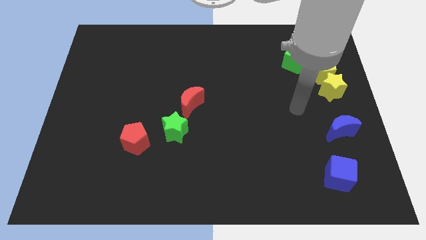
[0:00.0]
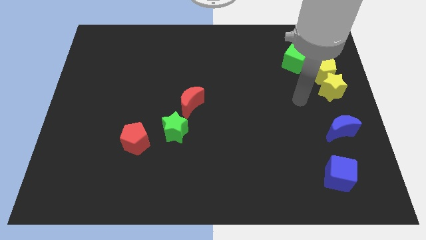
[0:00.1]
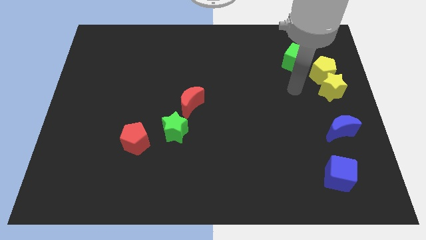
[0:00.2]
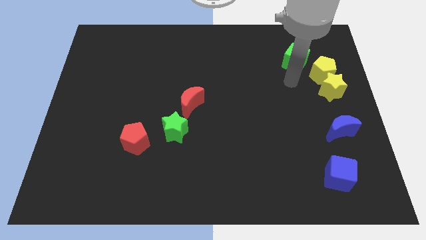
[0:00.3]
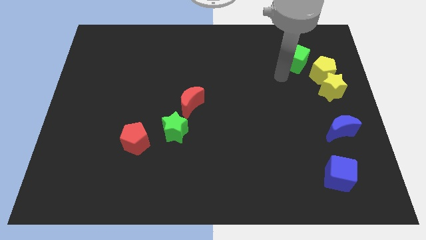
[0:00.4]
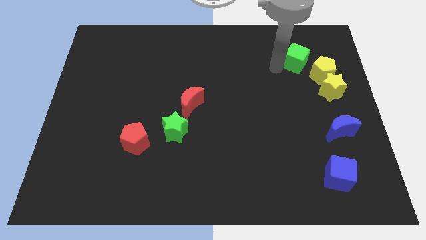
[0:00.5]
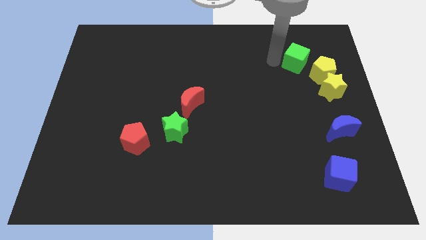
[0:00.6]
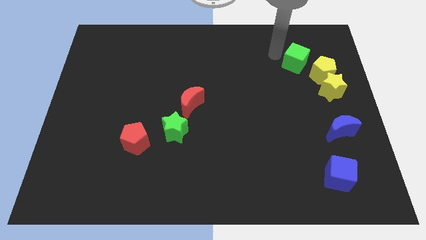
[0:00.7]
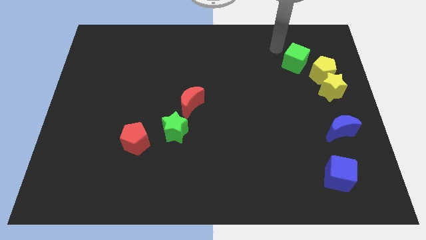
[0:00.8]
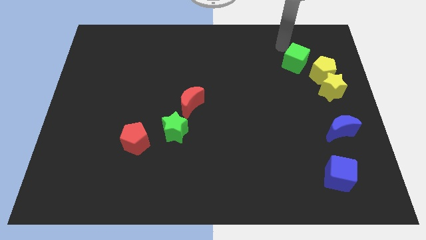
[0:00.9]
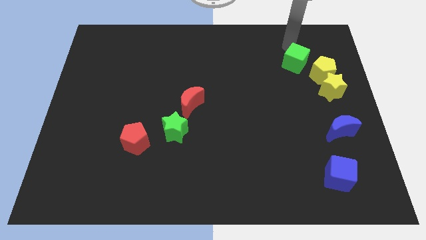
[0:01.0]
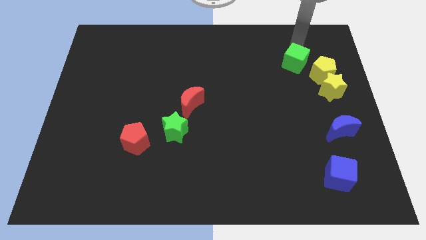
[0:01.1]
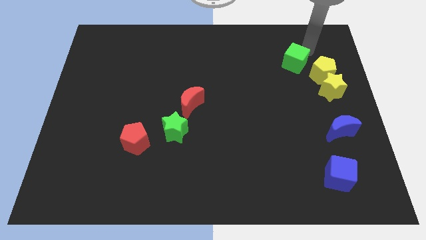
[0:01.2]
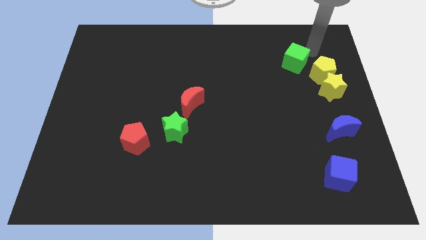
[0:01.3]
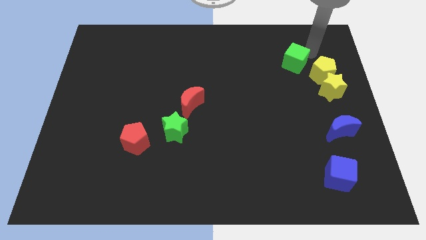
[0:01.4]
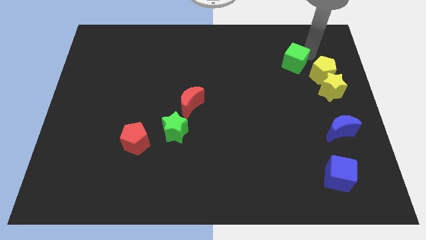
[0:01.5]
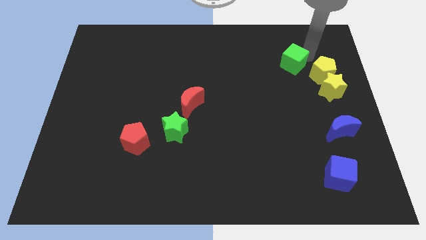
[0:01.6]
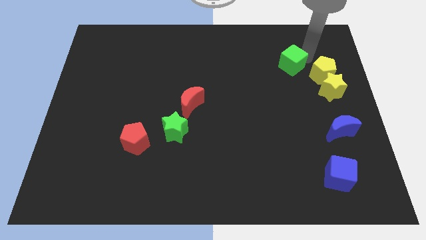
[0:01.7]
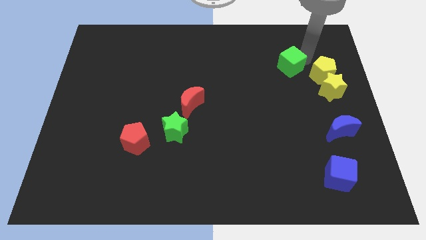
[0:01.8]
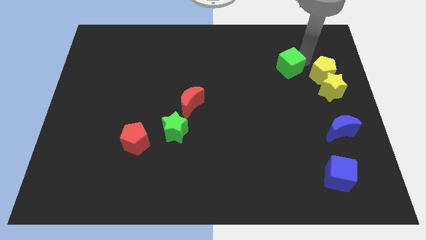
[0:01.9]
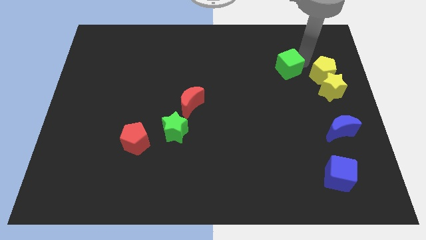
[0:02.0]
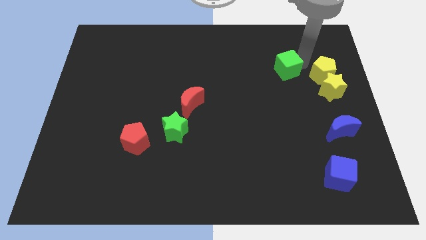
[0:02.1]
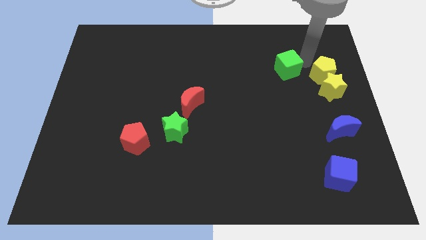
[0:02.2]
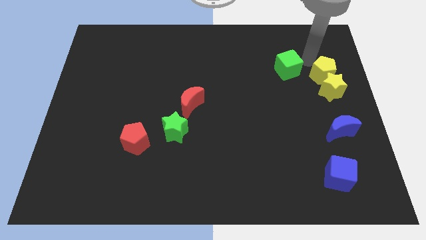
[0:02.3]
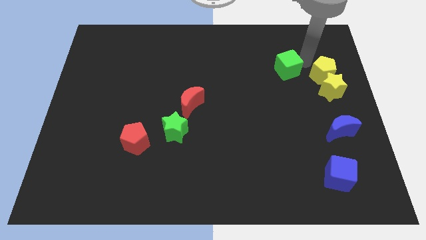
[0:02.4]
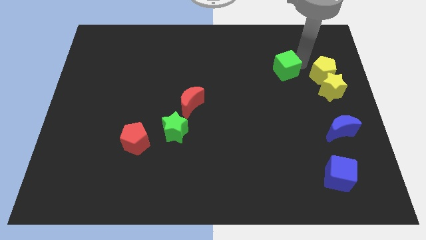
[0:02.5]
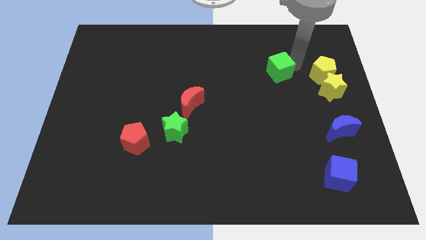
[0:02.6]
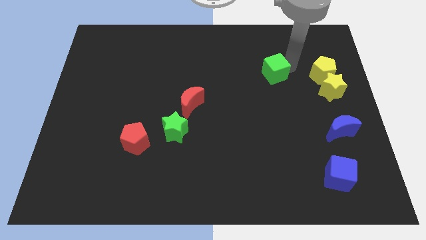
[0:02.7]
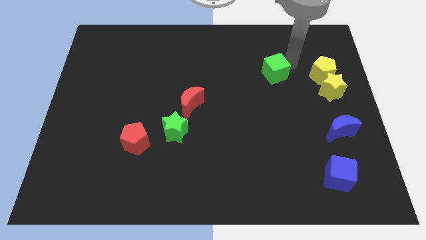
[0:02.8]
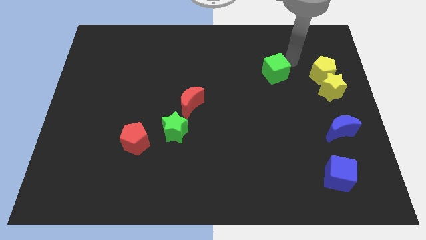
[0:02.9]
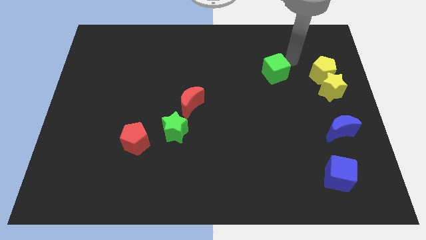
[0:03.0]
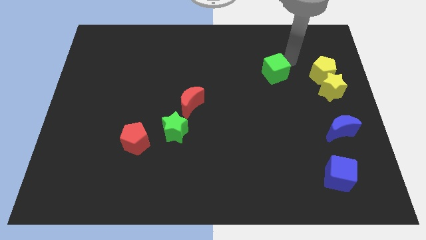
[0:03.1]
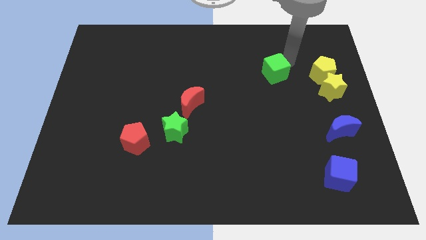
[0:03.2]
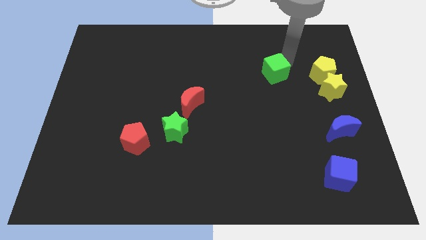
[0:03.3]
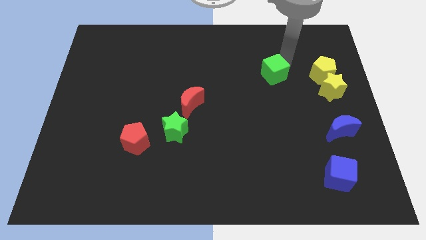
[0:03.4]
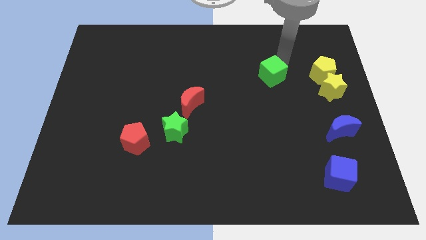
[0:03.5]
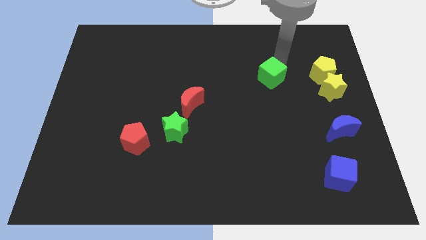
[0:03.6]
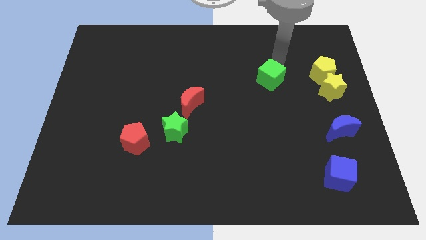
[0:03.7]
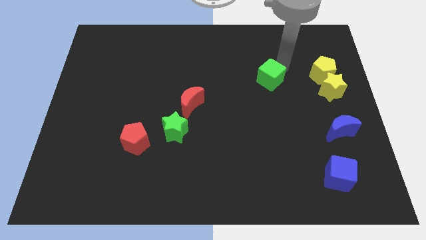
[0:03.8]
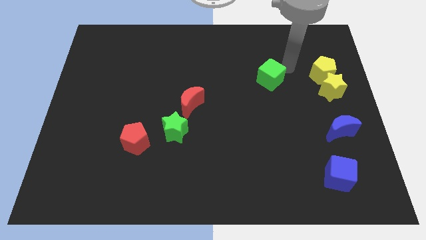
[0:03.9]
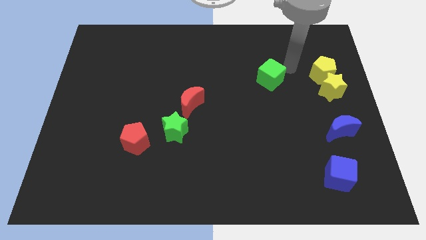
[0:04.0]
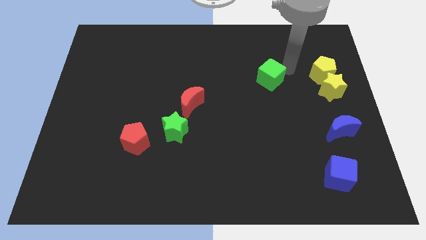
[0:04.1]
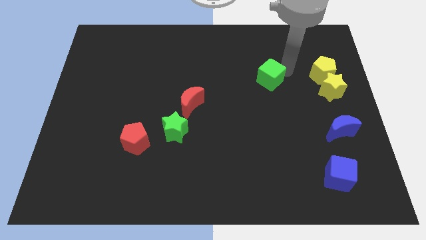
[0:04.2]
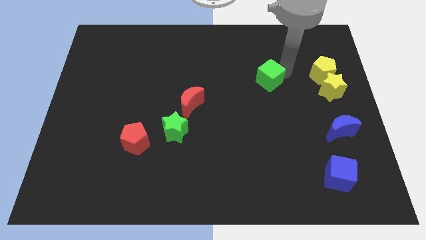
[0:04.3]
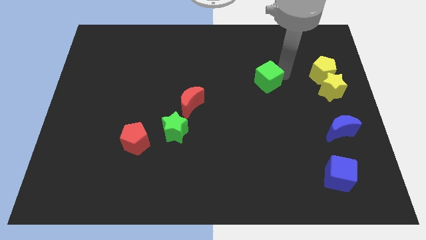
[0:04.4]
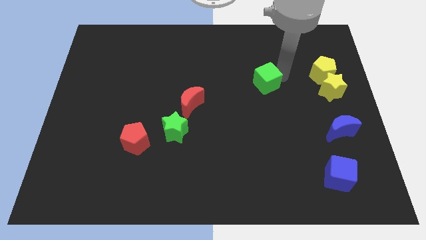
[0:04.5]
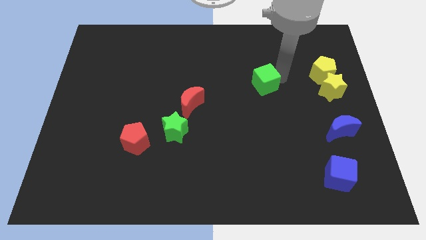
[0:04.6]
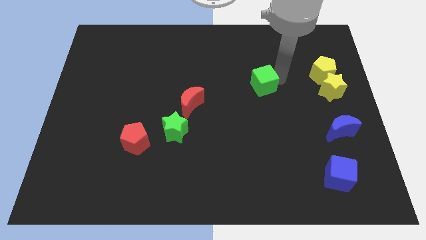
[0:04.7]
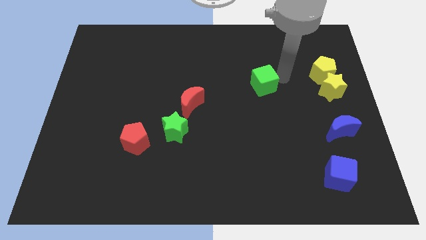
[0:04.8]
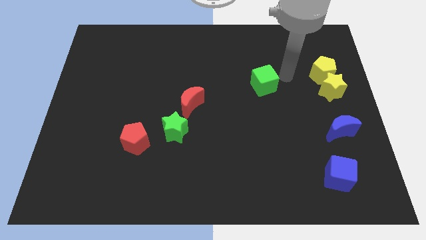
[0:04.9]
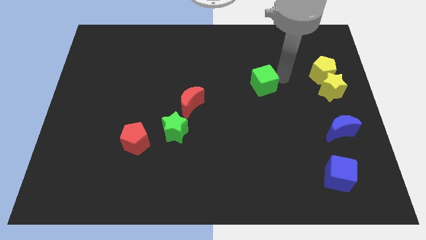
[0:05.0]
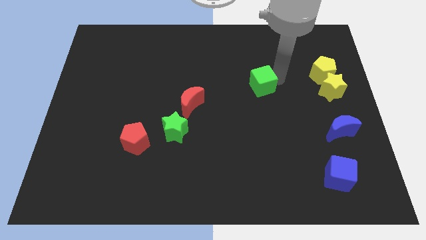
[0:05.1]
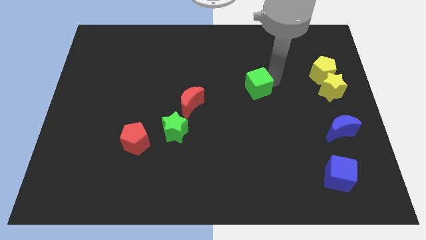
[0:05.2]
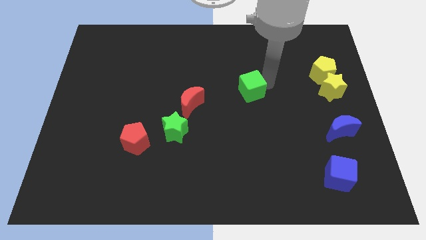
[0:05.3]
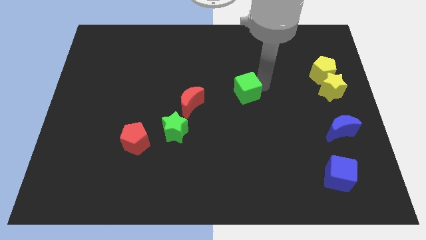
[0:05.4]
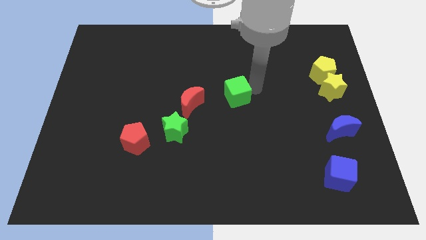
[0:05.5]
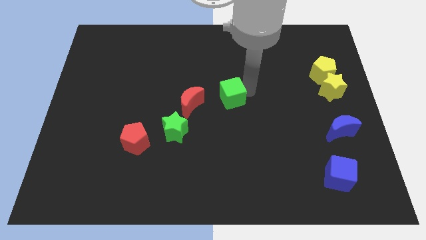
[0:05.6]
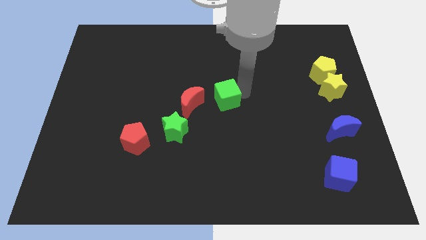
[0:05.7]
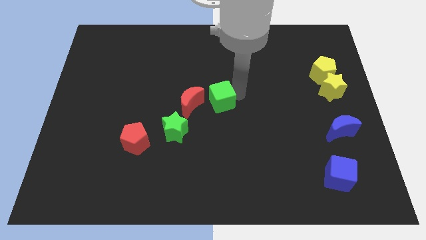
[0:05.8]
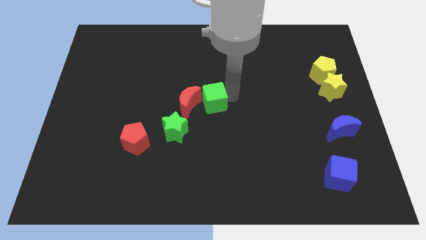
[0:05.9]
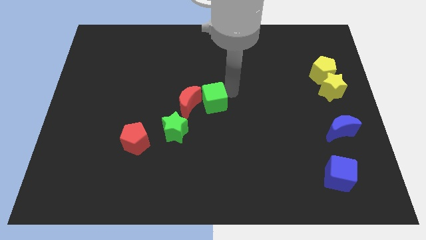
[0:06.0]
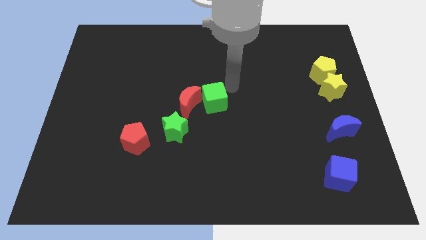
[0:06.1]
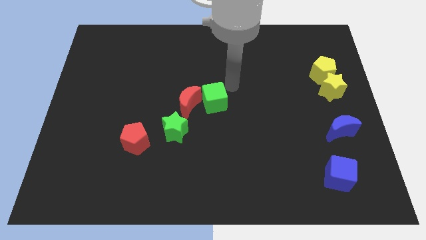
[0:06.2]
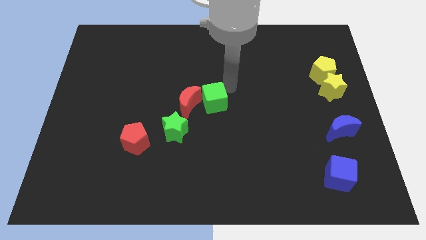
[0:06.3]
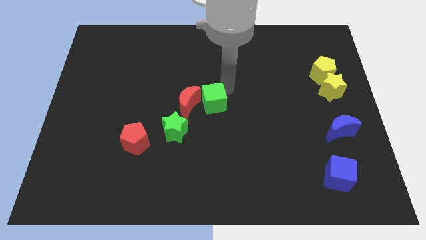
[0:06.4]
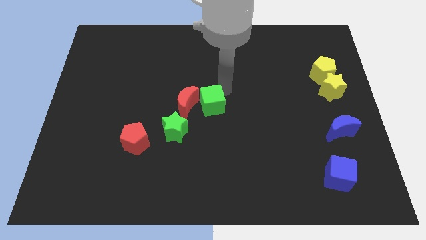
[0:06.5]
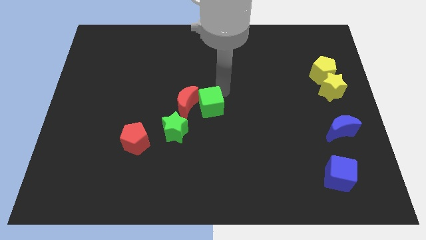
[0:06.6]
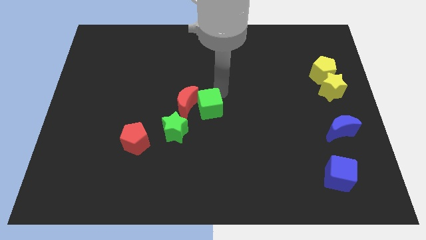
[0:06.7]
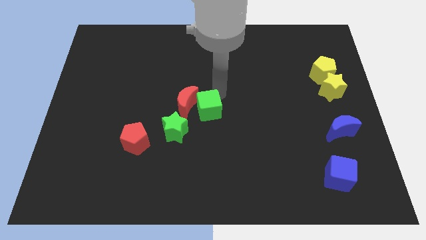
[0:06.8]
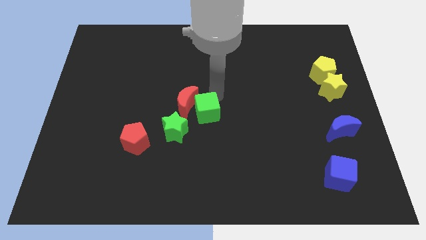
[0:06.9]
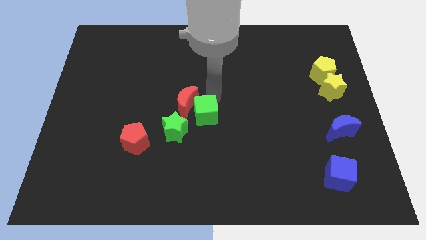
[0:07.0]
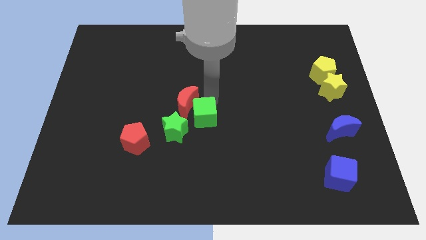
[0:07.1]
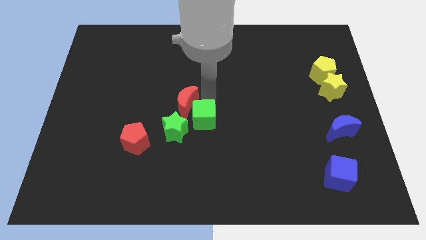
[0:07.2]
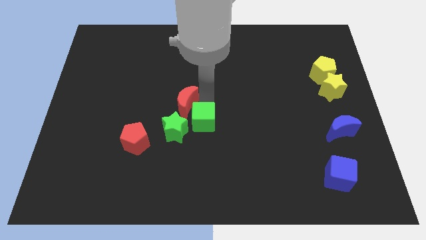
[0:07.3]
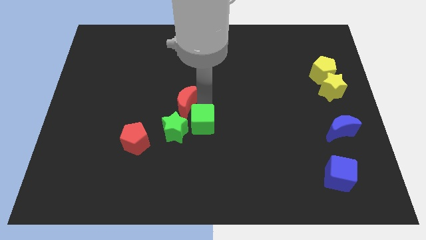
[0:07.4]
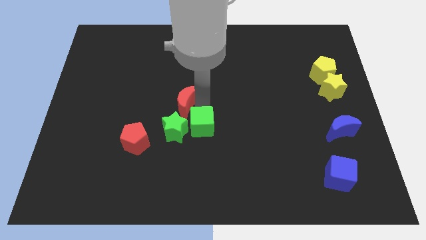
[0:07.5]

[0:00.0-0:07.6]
put the green cube next to the green star
